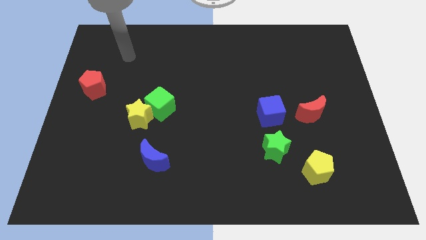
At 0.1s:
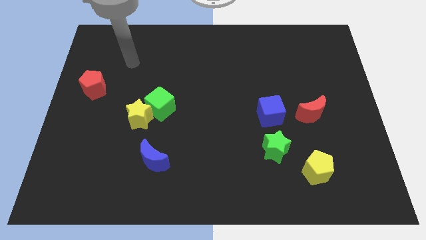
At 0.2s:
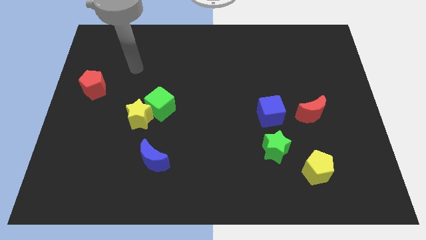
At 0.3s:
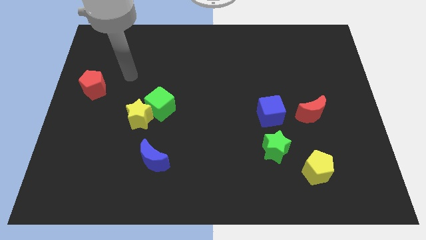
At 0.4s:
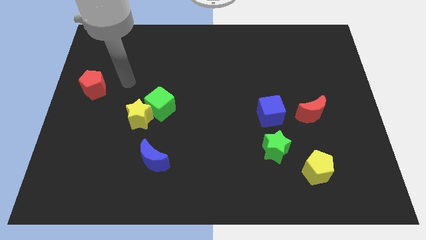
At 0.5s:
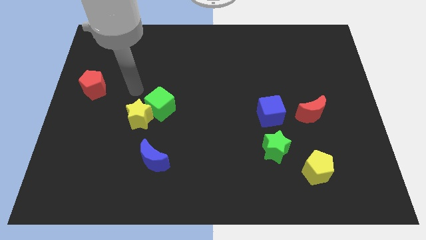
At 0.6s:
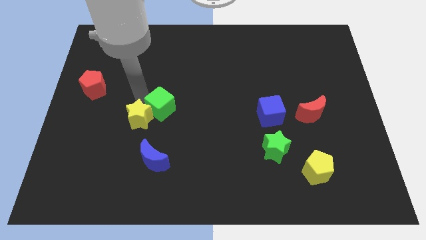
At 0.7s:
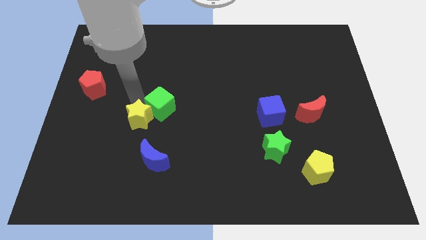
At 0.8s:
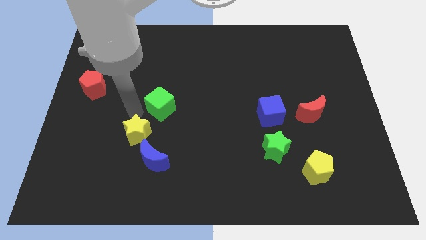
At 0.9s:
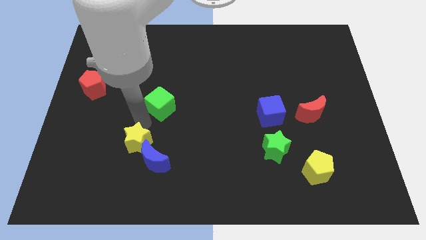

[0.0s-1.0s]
separate the green cube from the yellow star

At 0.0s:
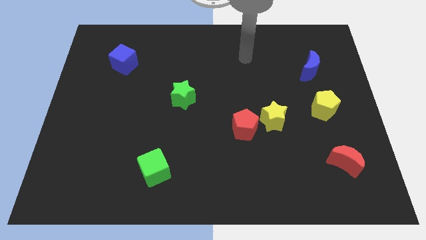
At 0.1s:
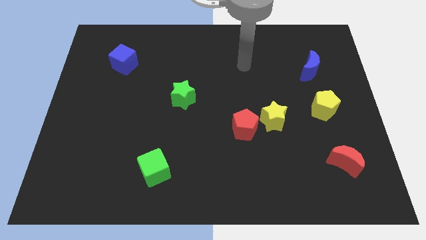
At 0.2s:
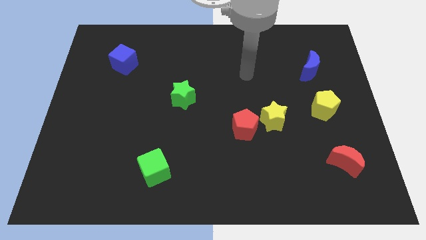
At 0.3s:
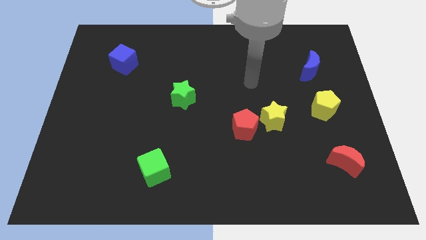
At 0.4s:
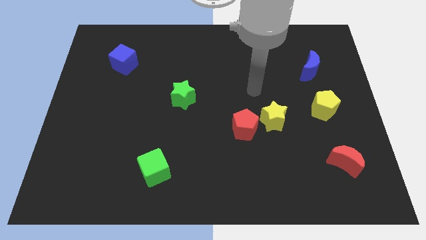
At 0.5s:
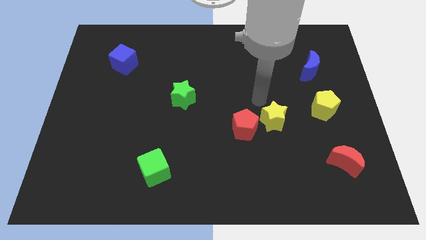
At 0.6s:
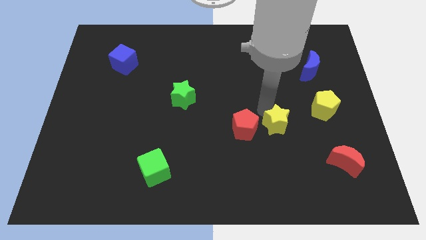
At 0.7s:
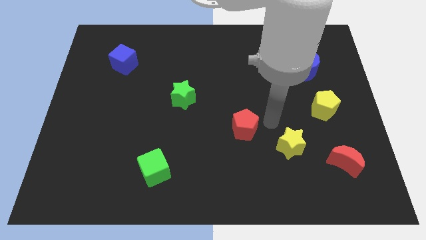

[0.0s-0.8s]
pull the red pentagon apart from the yellow star

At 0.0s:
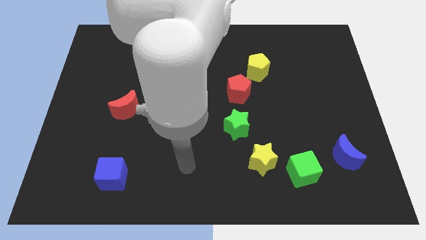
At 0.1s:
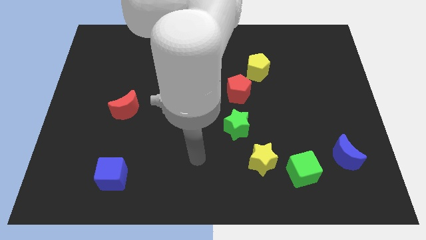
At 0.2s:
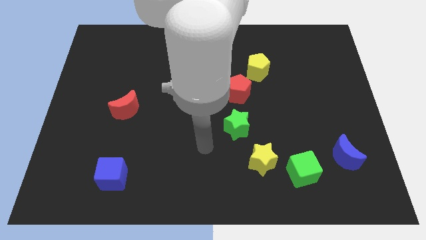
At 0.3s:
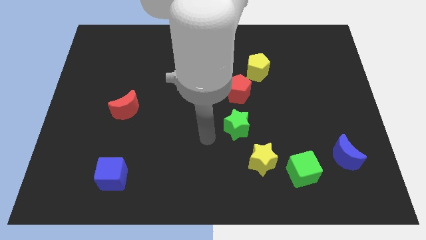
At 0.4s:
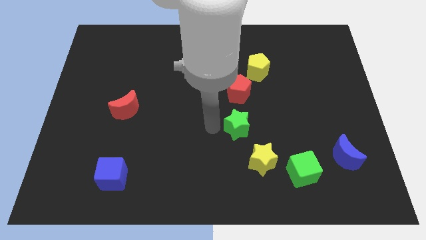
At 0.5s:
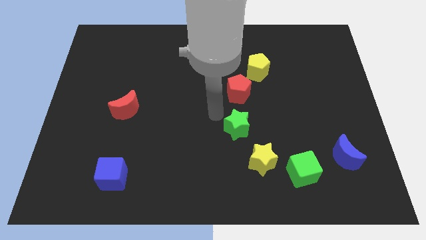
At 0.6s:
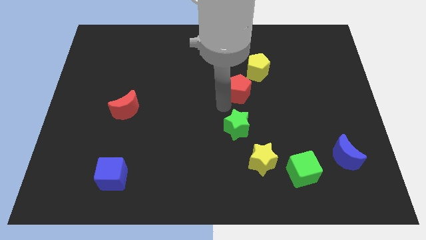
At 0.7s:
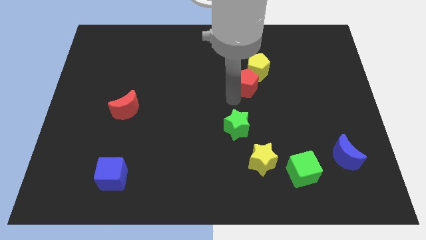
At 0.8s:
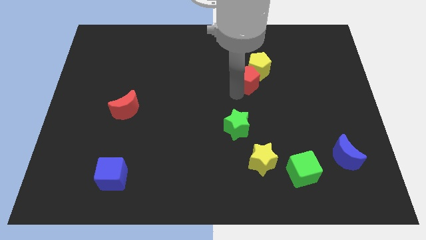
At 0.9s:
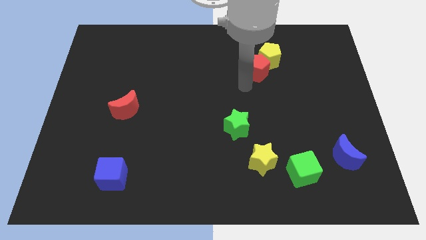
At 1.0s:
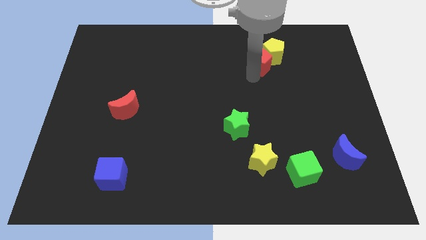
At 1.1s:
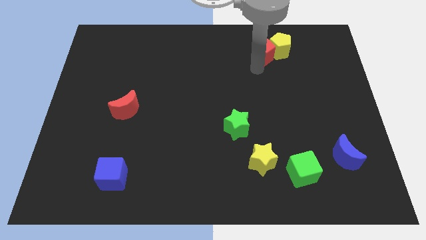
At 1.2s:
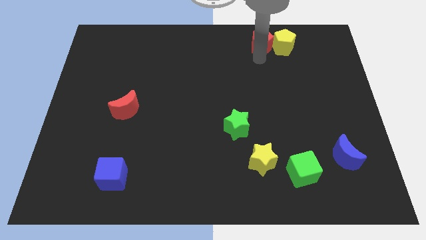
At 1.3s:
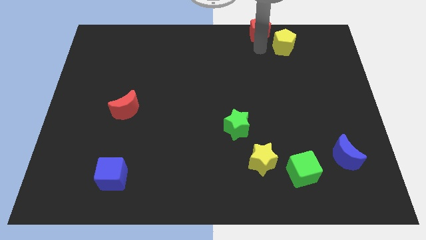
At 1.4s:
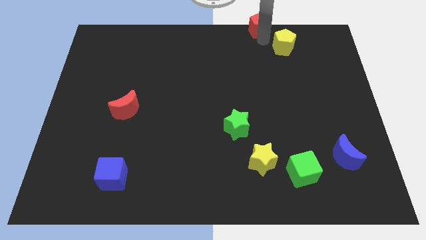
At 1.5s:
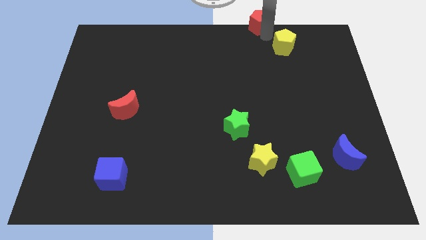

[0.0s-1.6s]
pull the yellow pentagon apart from the red pentagon

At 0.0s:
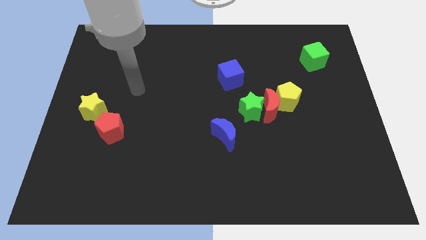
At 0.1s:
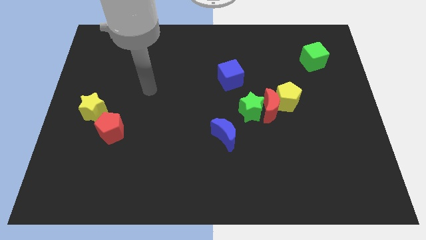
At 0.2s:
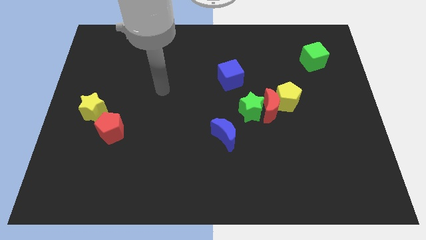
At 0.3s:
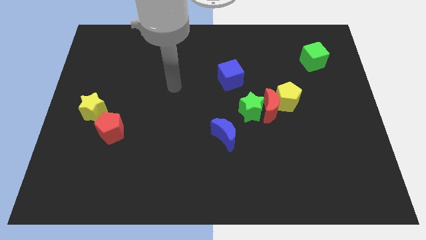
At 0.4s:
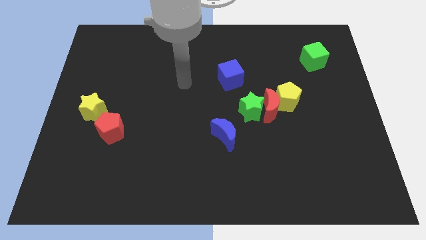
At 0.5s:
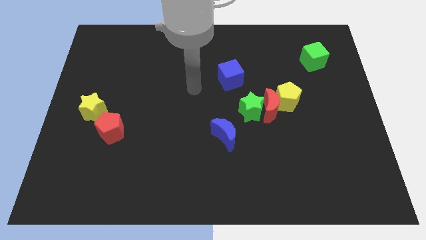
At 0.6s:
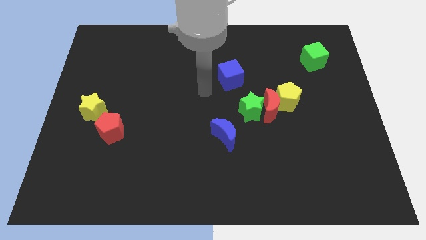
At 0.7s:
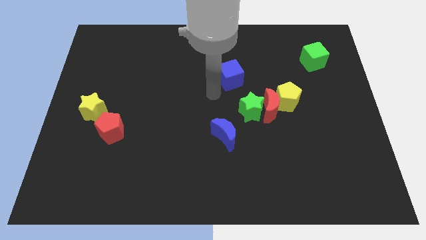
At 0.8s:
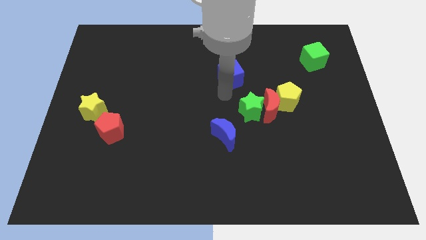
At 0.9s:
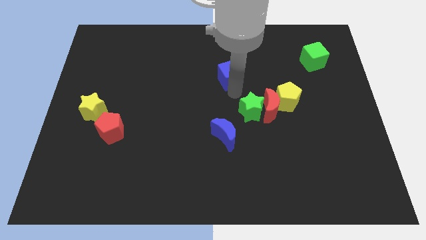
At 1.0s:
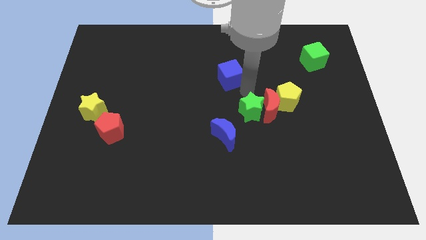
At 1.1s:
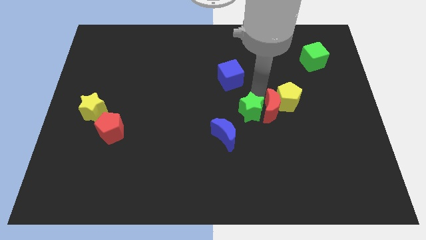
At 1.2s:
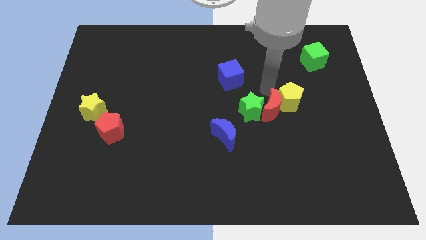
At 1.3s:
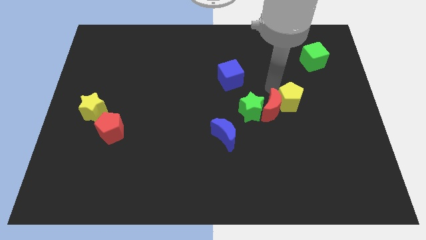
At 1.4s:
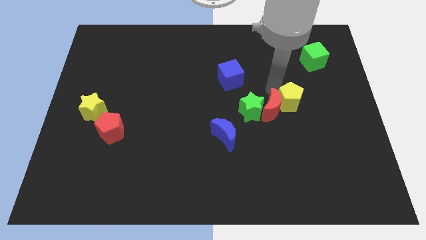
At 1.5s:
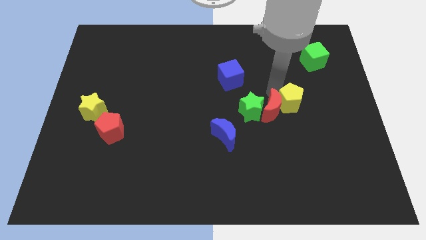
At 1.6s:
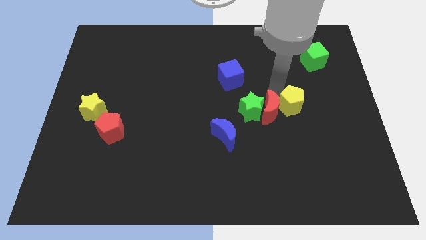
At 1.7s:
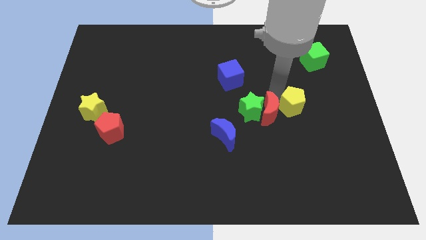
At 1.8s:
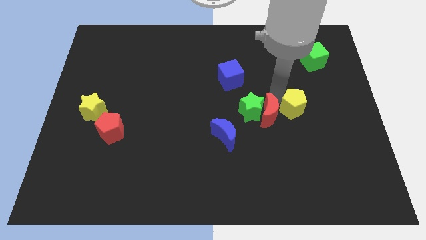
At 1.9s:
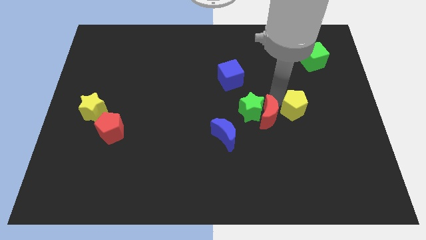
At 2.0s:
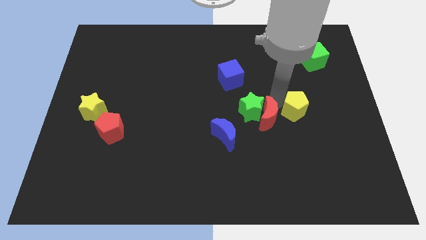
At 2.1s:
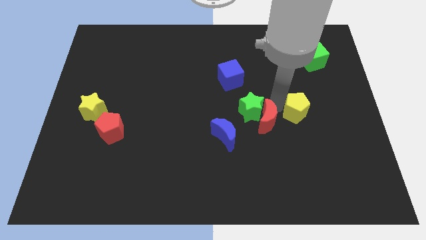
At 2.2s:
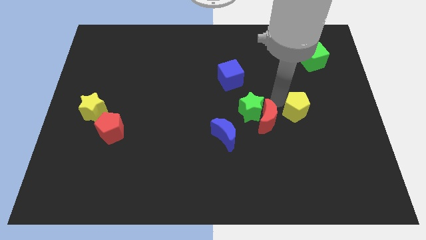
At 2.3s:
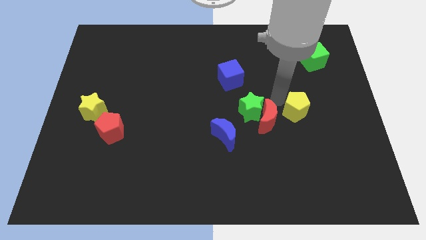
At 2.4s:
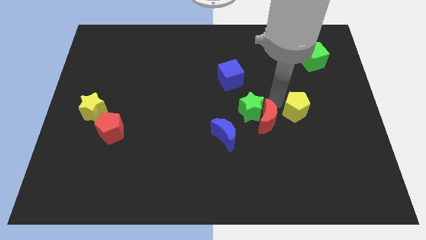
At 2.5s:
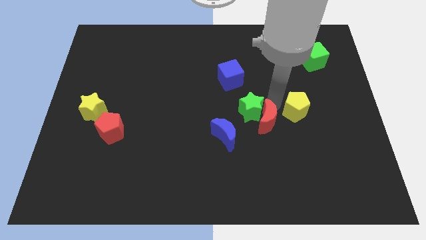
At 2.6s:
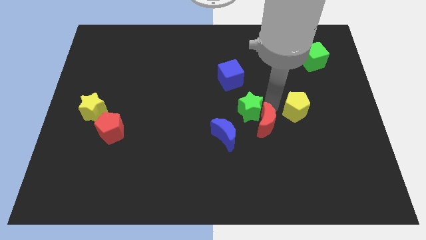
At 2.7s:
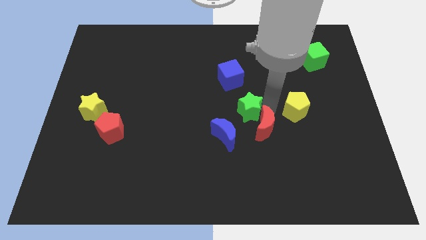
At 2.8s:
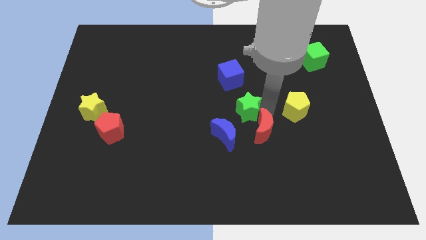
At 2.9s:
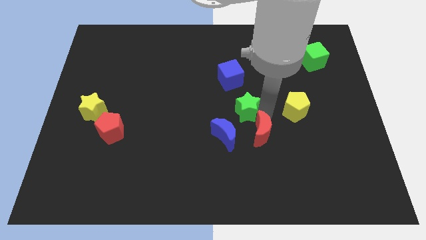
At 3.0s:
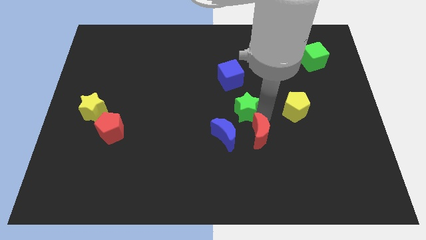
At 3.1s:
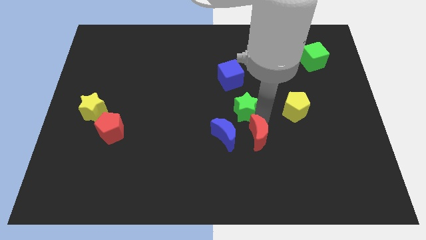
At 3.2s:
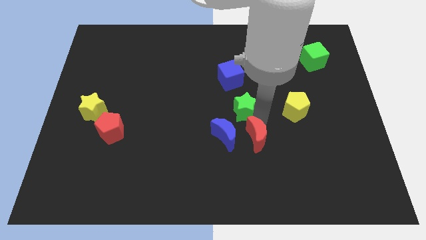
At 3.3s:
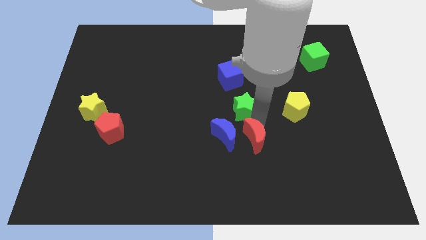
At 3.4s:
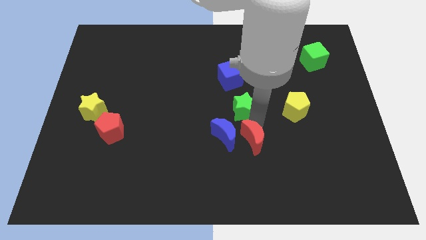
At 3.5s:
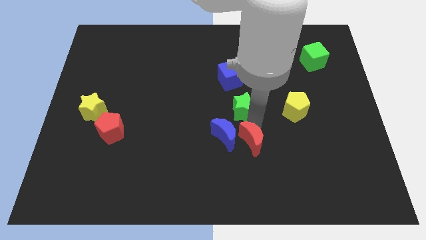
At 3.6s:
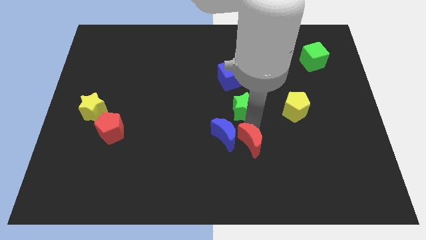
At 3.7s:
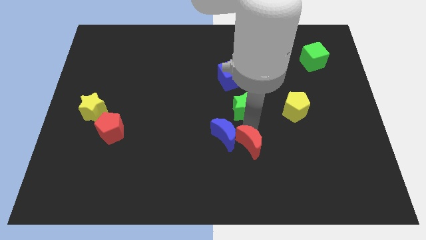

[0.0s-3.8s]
move the red moon away from the green star and yellow pentagon

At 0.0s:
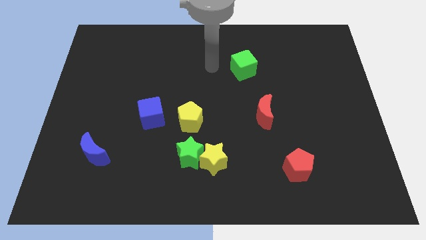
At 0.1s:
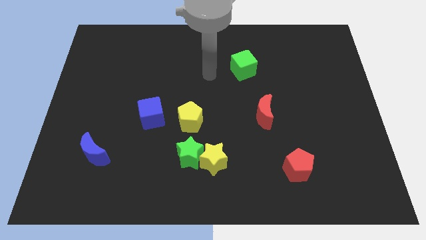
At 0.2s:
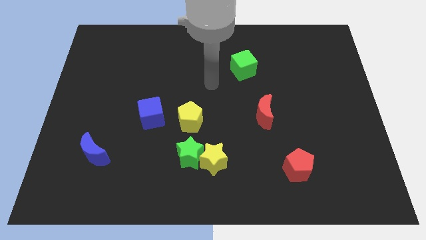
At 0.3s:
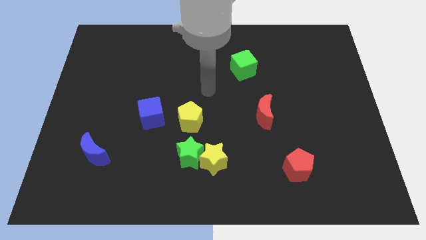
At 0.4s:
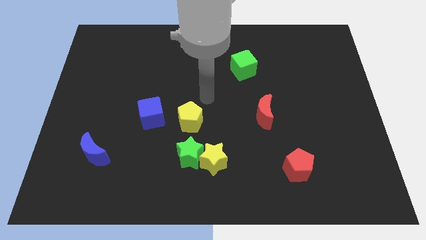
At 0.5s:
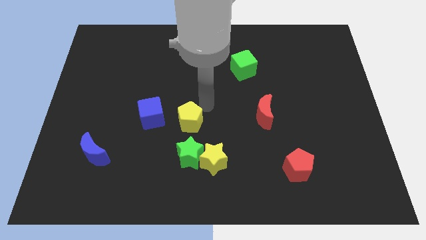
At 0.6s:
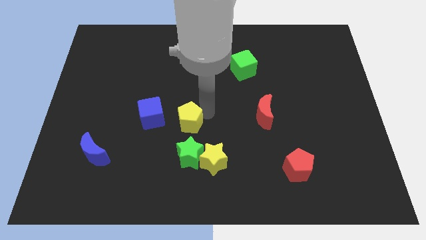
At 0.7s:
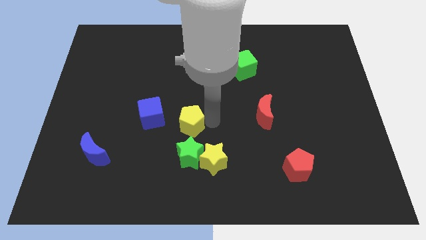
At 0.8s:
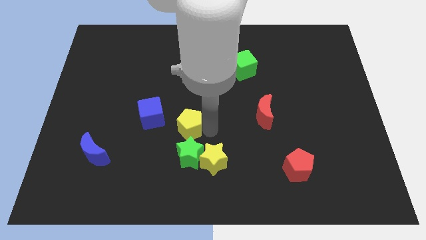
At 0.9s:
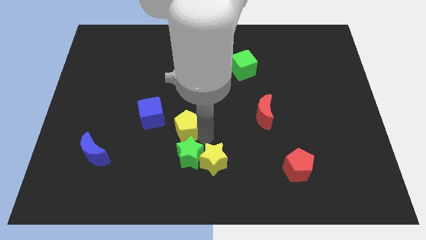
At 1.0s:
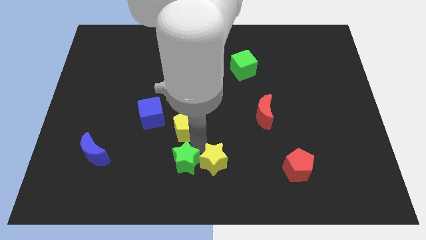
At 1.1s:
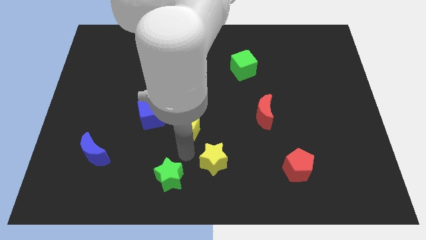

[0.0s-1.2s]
move the yellow star away from the green star

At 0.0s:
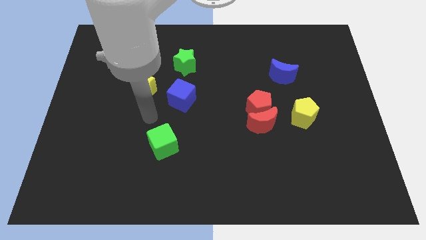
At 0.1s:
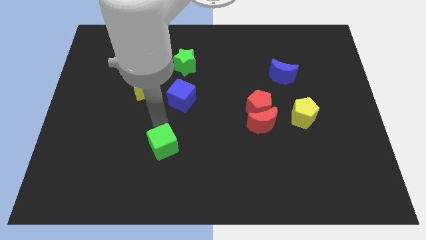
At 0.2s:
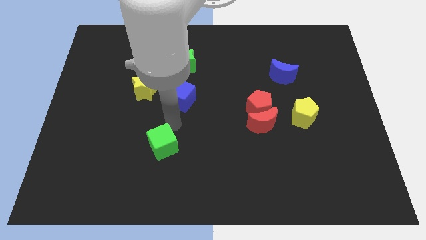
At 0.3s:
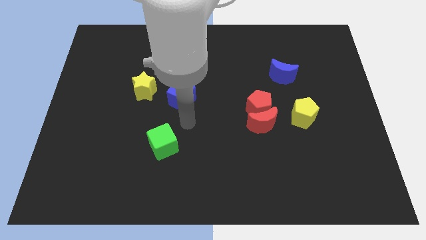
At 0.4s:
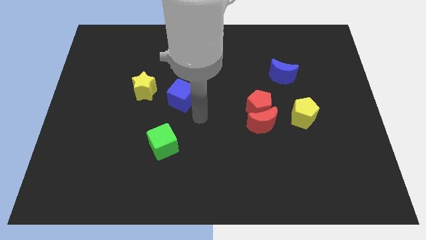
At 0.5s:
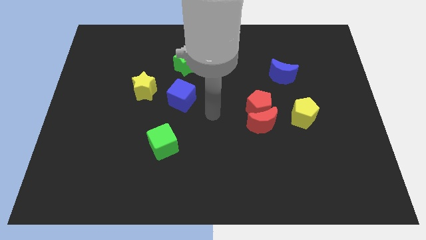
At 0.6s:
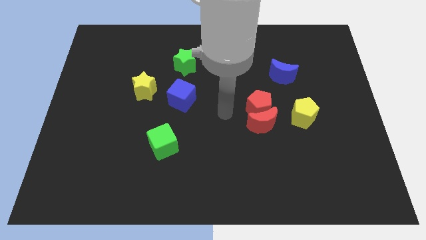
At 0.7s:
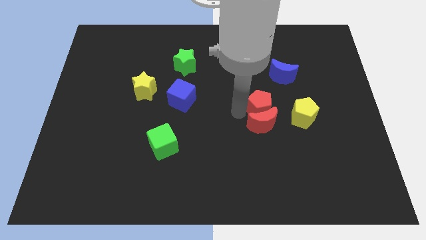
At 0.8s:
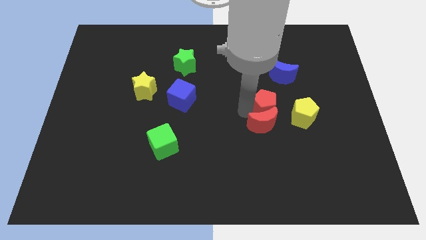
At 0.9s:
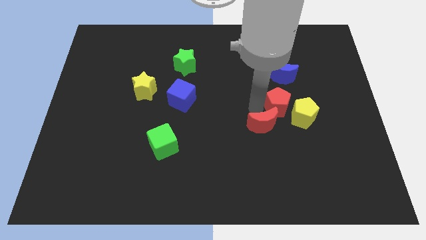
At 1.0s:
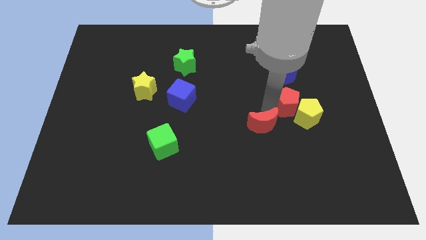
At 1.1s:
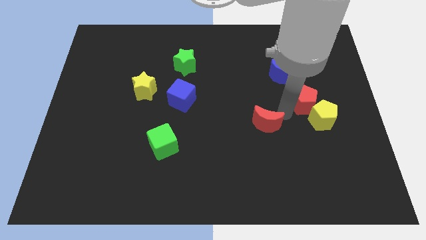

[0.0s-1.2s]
separate the red moon from the red pentagon and yellow pentagon
